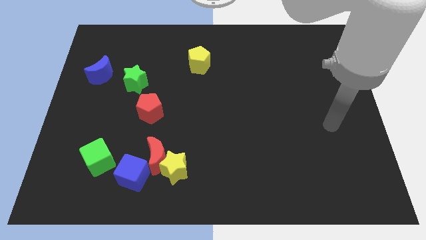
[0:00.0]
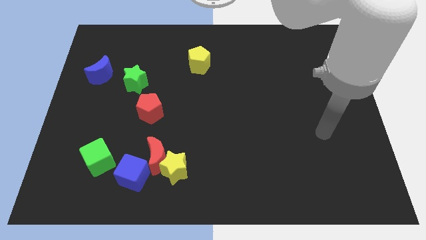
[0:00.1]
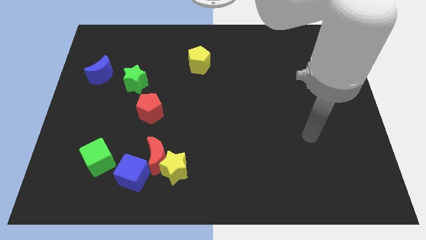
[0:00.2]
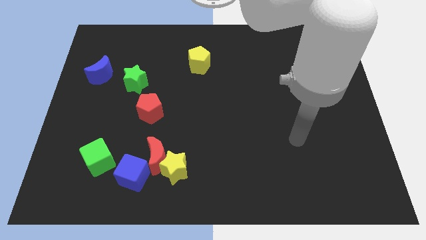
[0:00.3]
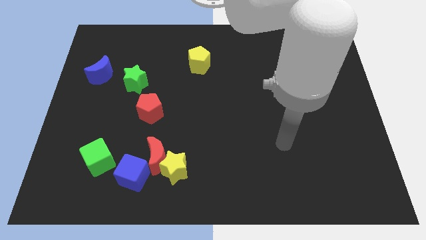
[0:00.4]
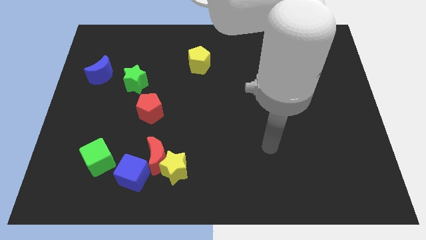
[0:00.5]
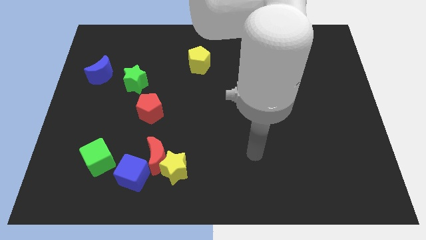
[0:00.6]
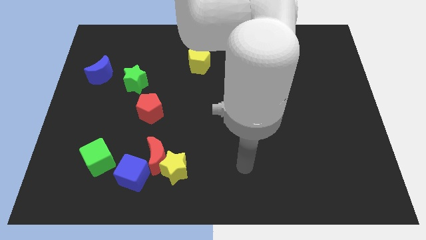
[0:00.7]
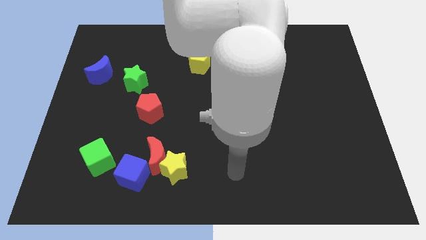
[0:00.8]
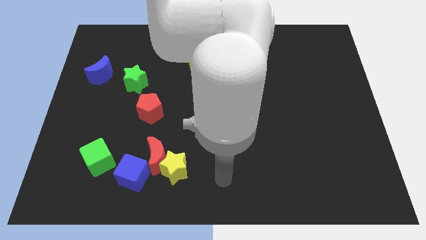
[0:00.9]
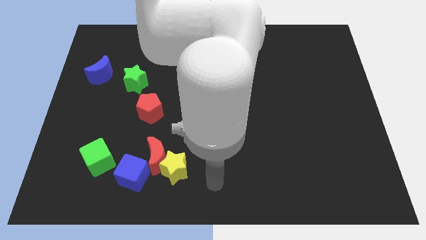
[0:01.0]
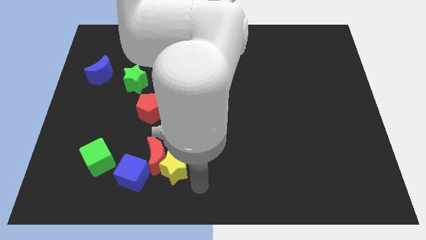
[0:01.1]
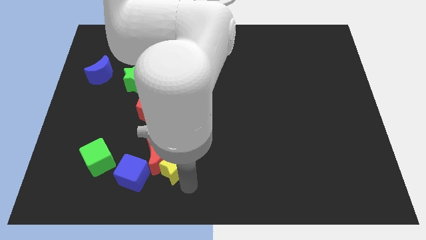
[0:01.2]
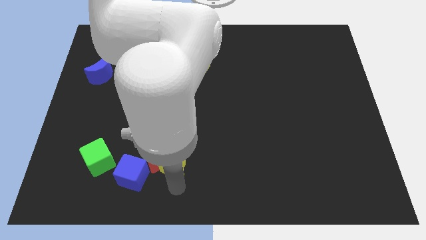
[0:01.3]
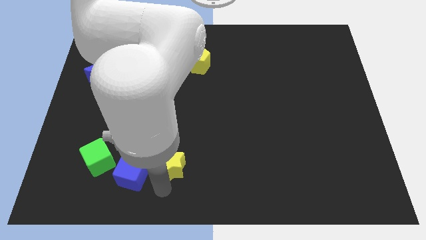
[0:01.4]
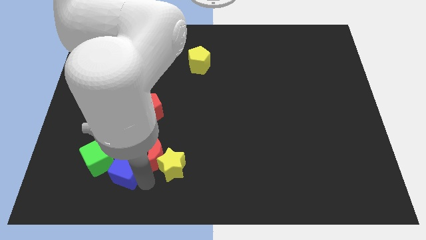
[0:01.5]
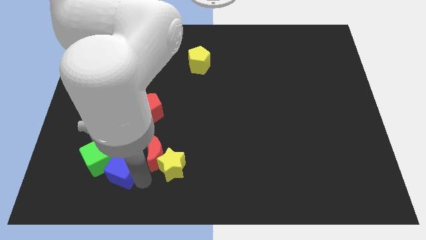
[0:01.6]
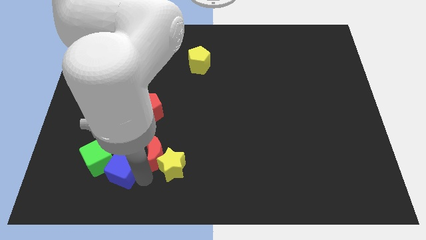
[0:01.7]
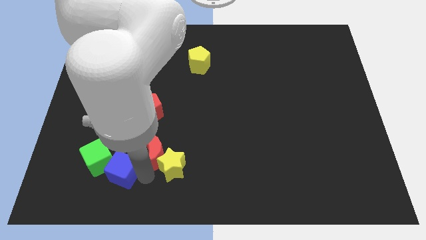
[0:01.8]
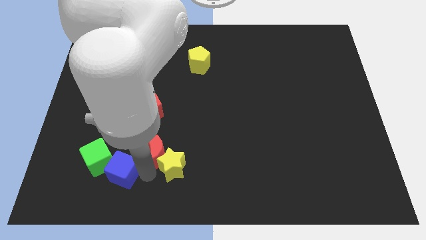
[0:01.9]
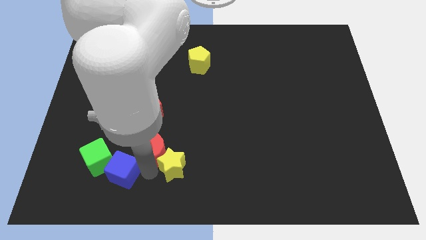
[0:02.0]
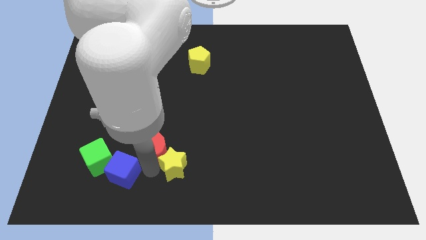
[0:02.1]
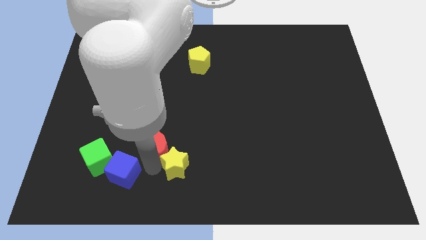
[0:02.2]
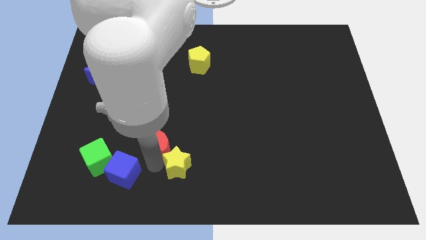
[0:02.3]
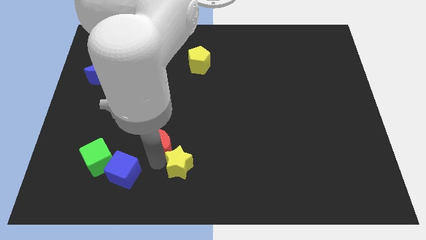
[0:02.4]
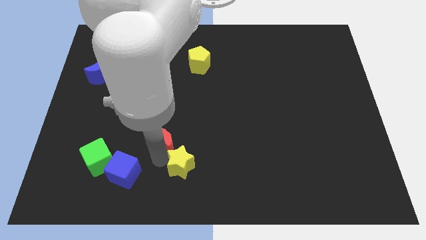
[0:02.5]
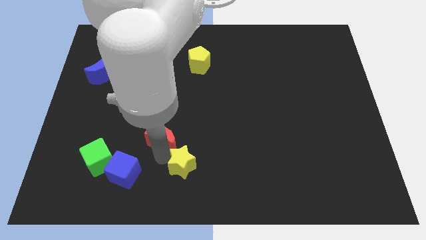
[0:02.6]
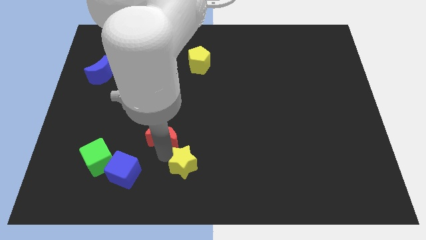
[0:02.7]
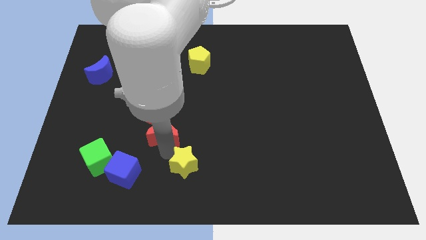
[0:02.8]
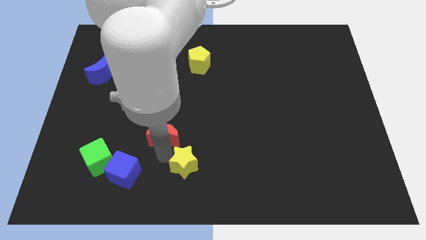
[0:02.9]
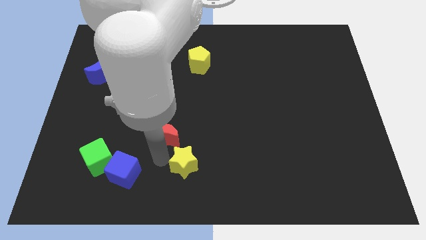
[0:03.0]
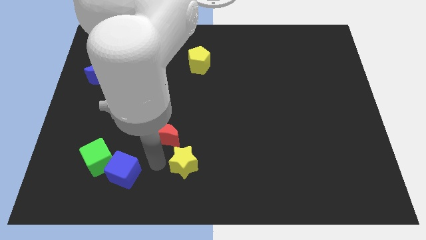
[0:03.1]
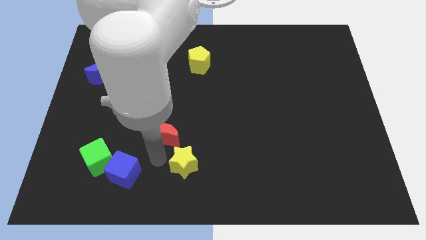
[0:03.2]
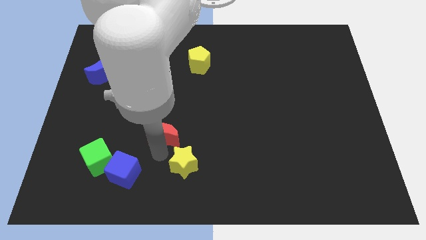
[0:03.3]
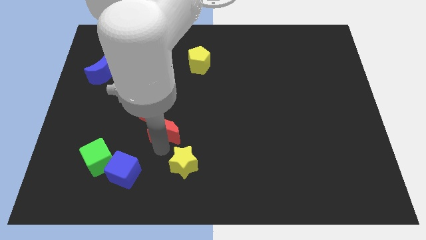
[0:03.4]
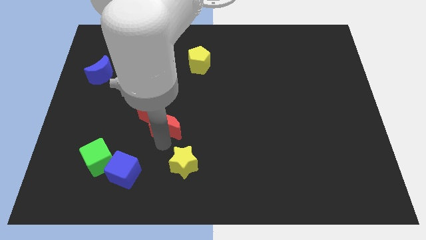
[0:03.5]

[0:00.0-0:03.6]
pull the red moon apart from the yellow star and blue cube

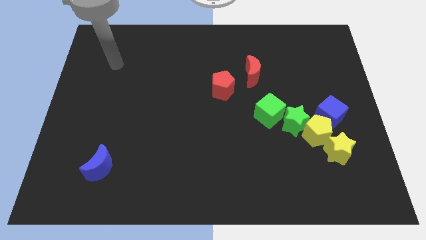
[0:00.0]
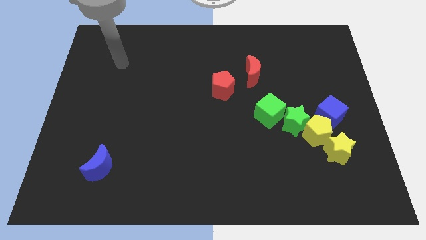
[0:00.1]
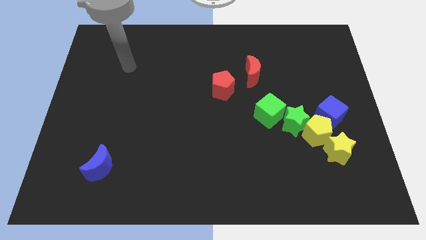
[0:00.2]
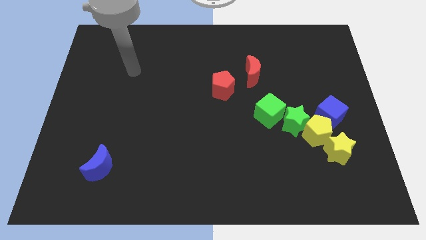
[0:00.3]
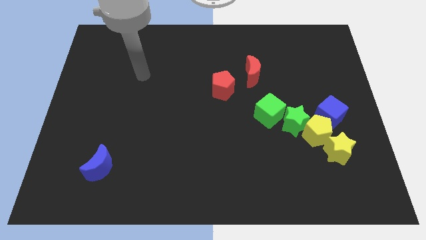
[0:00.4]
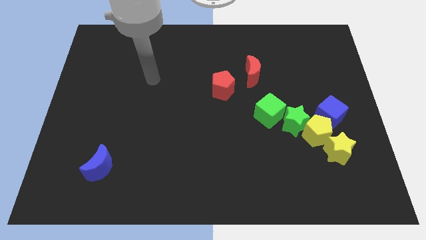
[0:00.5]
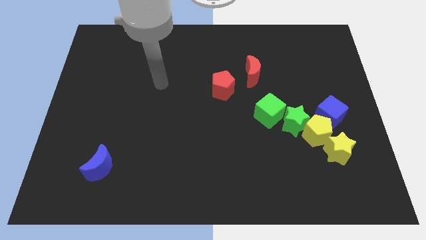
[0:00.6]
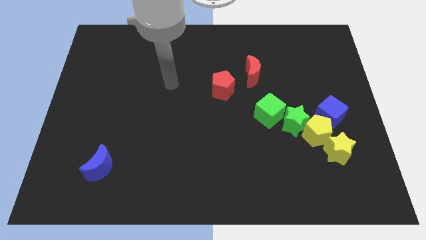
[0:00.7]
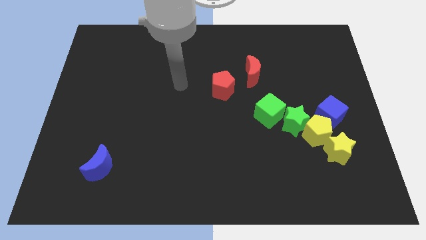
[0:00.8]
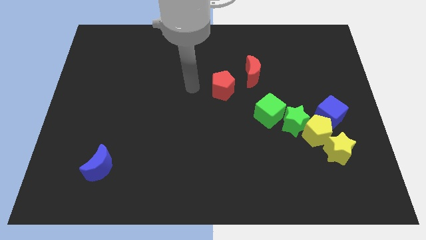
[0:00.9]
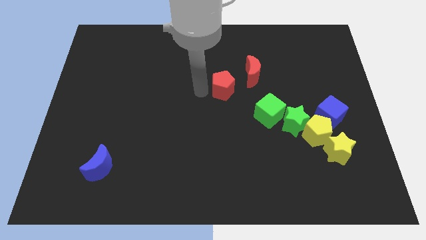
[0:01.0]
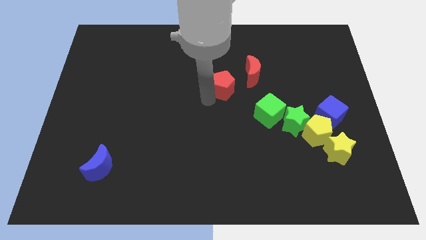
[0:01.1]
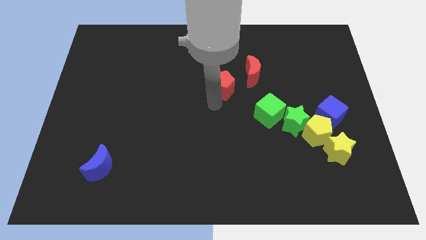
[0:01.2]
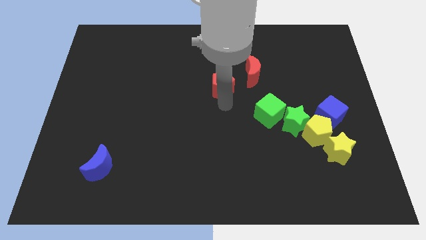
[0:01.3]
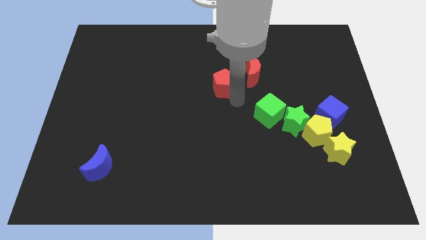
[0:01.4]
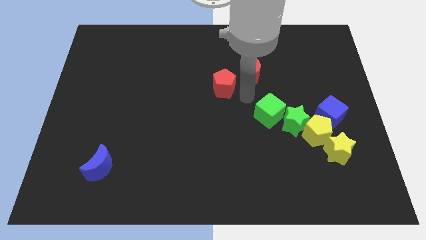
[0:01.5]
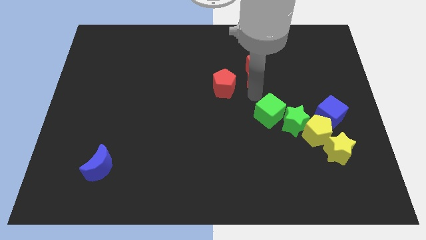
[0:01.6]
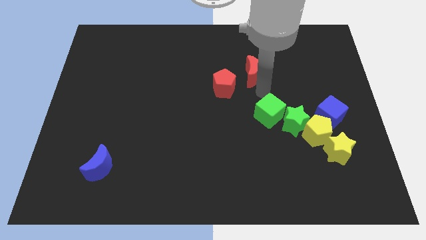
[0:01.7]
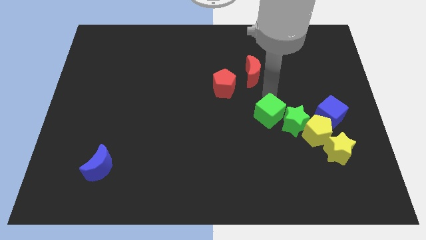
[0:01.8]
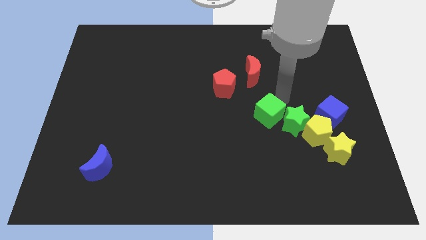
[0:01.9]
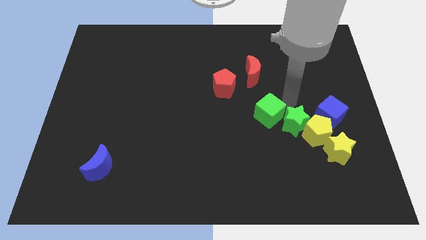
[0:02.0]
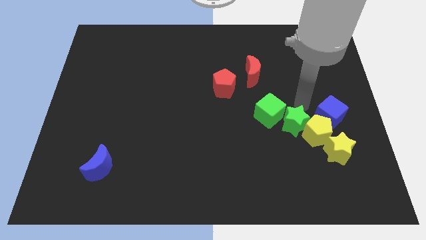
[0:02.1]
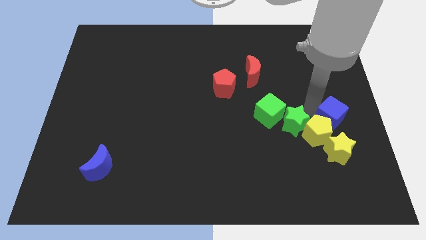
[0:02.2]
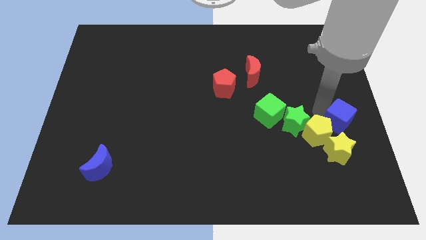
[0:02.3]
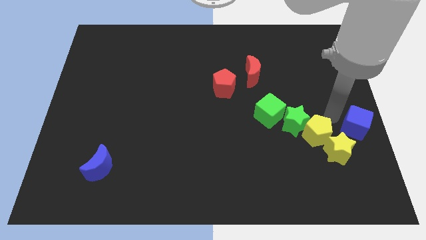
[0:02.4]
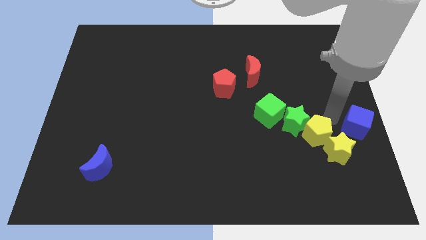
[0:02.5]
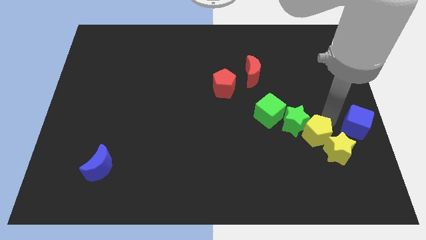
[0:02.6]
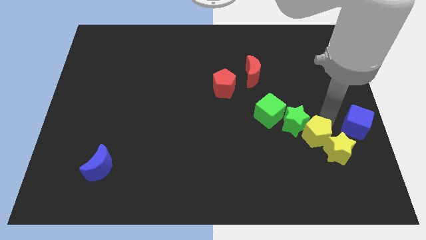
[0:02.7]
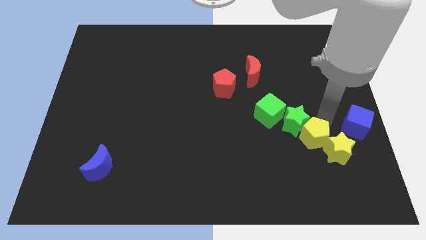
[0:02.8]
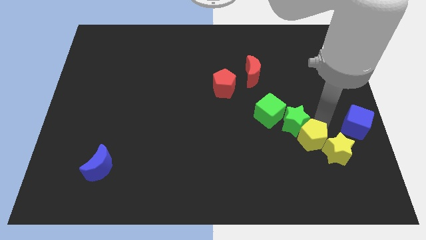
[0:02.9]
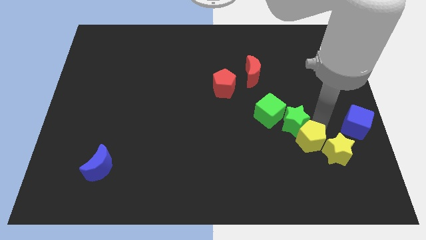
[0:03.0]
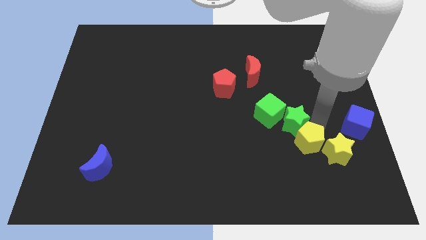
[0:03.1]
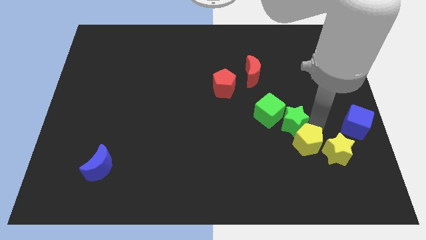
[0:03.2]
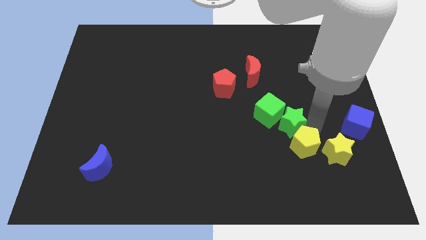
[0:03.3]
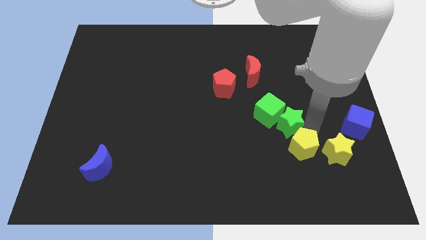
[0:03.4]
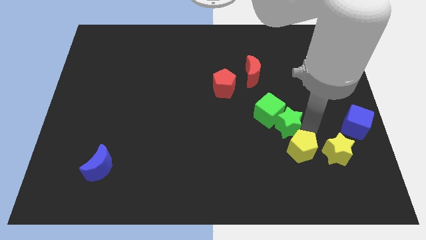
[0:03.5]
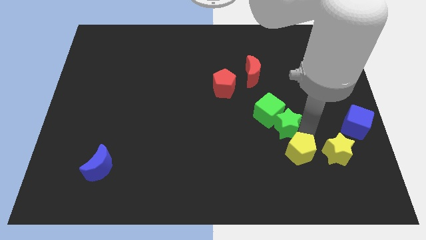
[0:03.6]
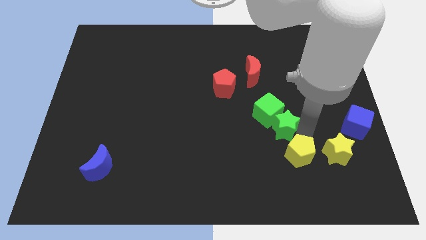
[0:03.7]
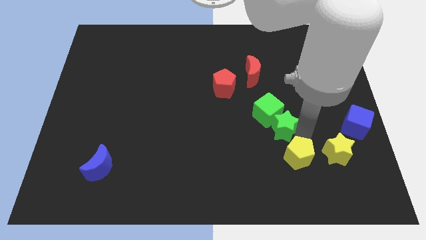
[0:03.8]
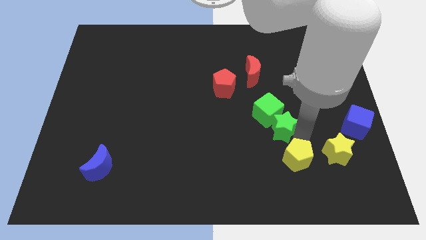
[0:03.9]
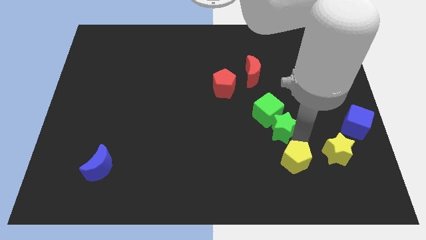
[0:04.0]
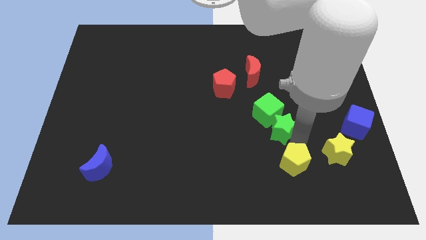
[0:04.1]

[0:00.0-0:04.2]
separate the yellow pentagon from the green star, yellow star, and blue cube

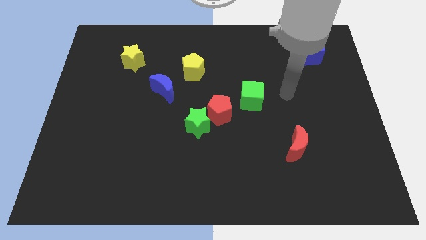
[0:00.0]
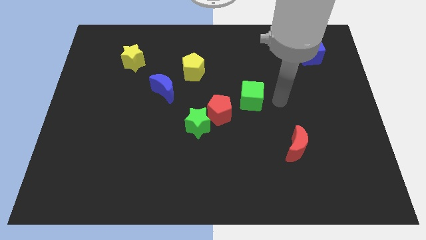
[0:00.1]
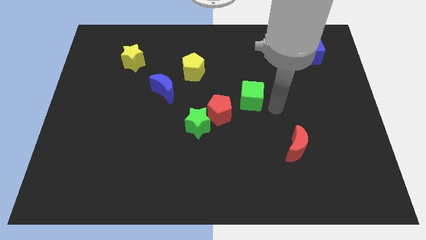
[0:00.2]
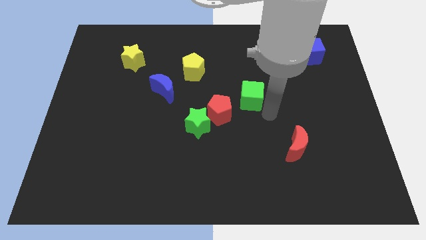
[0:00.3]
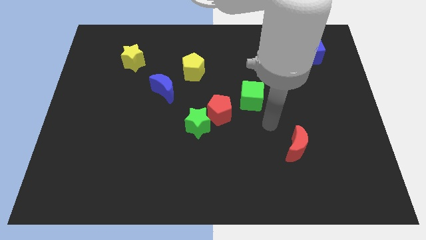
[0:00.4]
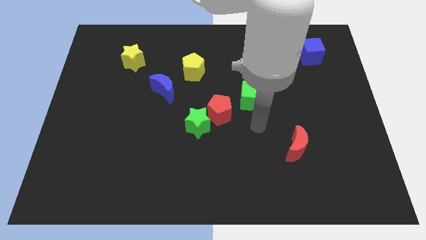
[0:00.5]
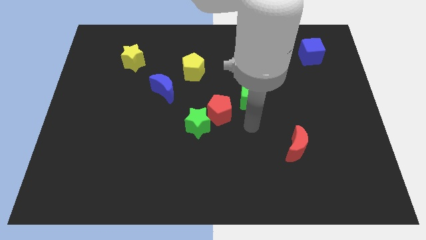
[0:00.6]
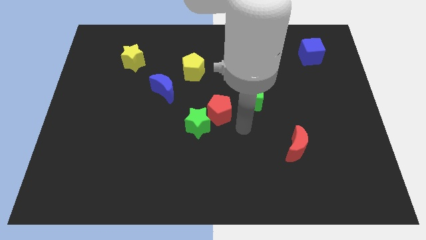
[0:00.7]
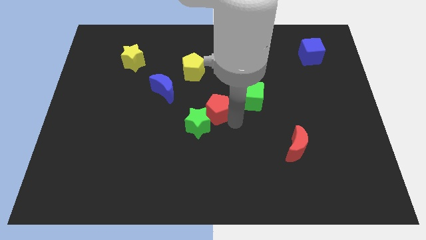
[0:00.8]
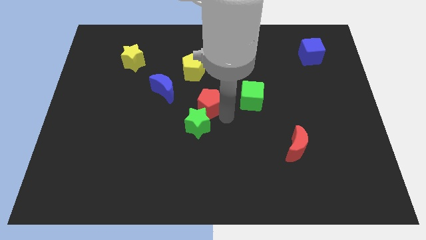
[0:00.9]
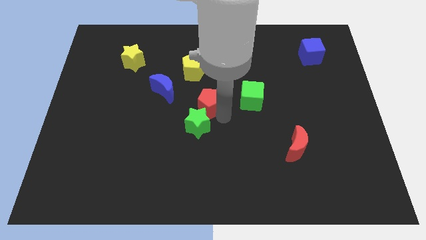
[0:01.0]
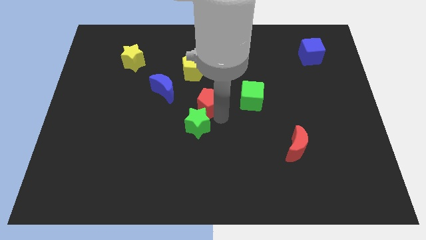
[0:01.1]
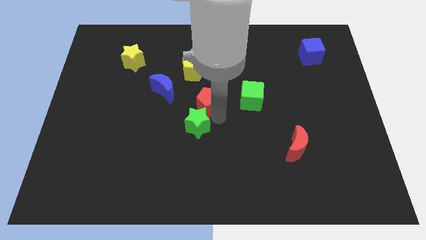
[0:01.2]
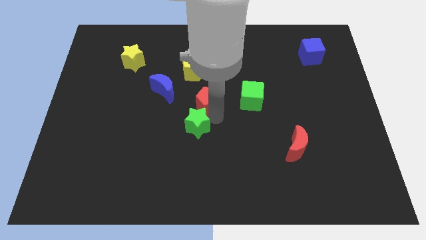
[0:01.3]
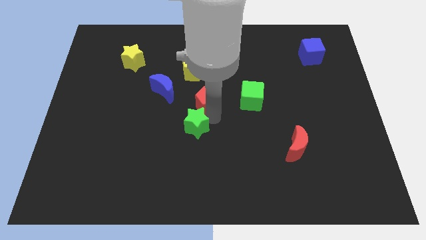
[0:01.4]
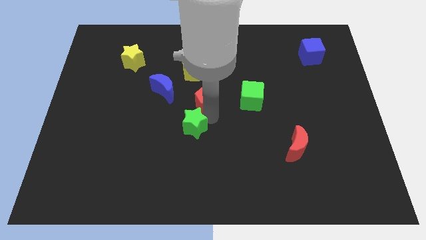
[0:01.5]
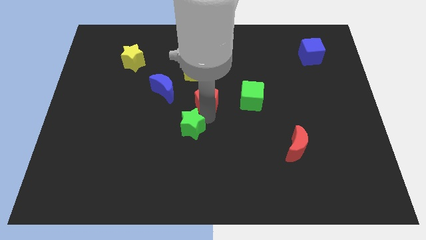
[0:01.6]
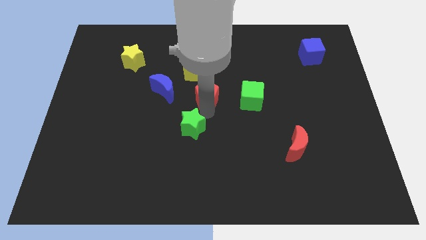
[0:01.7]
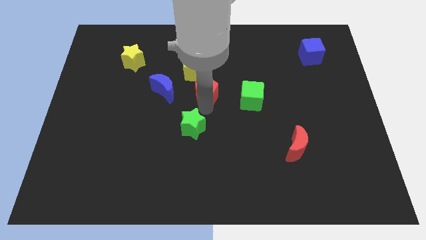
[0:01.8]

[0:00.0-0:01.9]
pull the green star apart from the red pentagon
